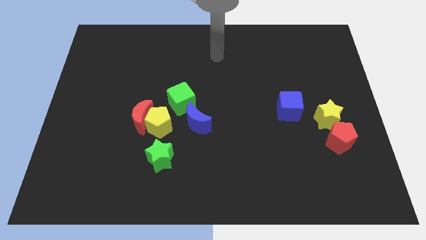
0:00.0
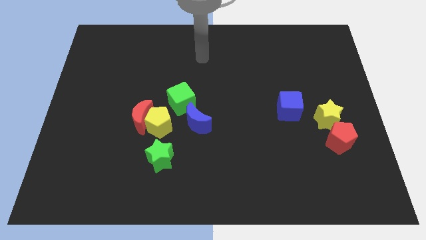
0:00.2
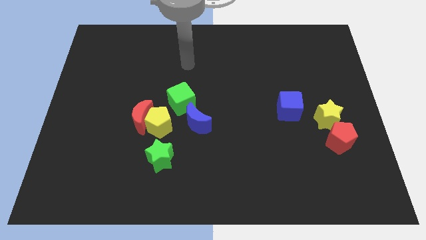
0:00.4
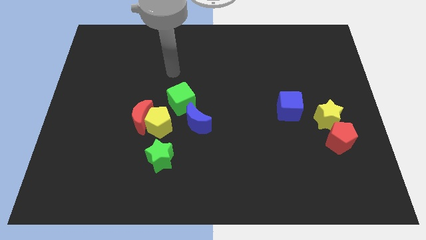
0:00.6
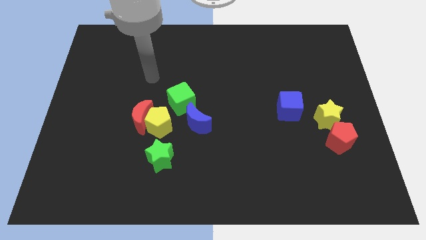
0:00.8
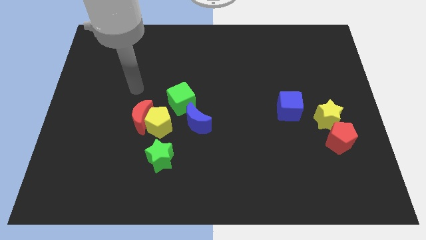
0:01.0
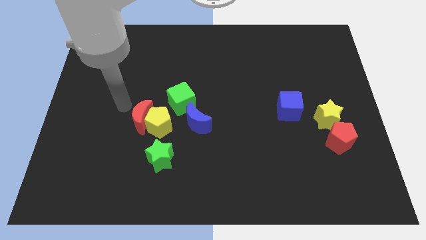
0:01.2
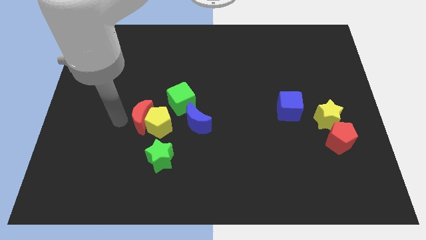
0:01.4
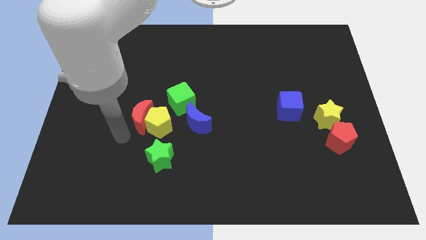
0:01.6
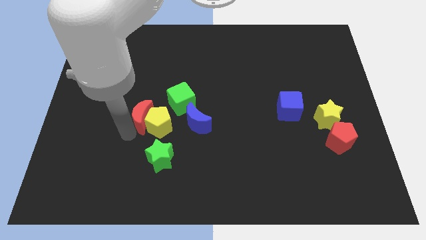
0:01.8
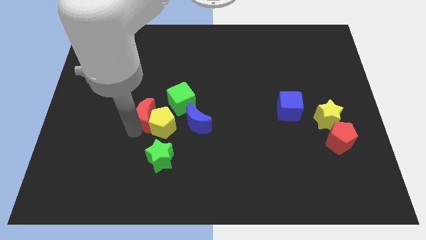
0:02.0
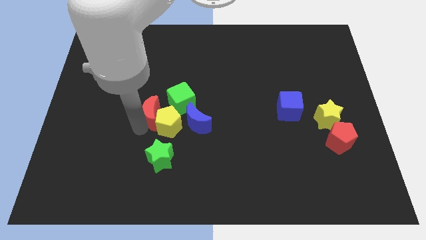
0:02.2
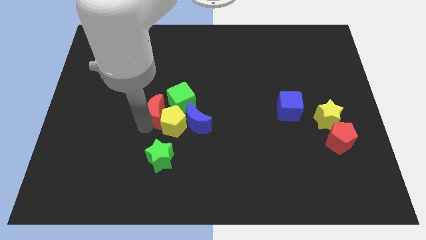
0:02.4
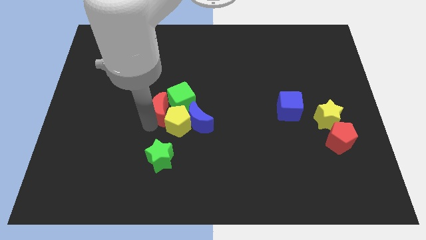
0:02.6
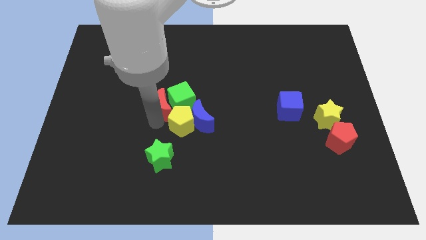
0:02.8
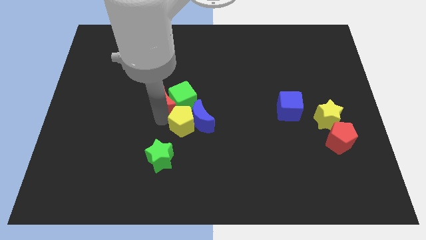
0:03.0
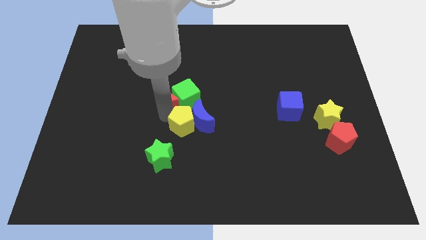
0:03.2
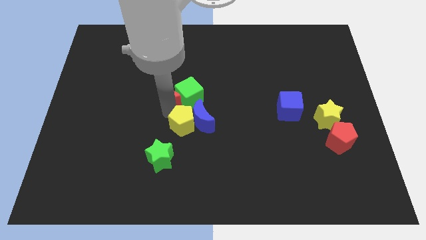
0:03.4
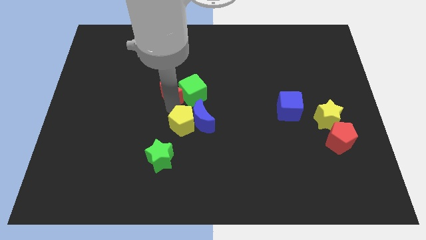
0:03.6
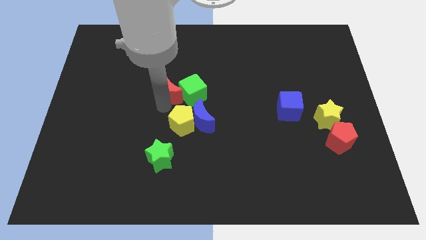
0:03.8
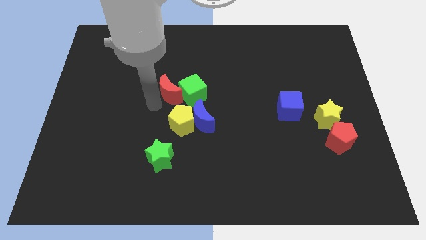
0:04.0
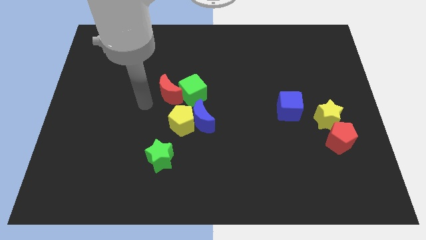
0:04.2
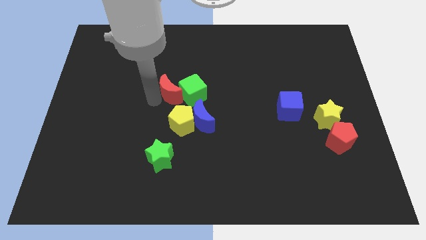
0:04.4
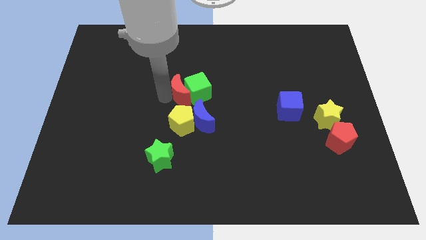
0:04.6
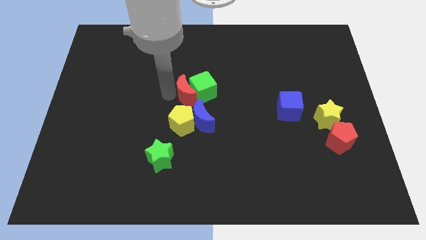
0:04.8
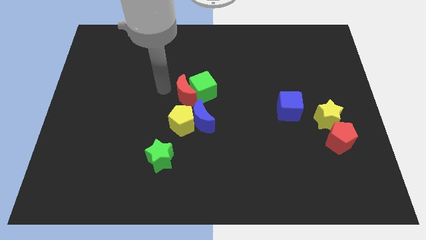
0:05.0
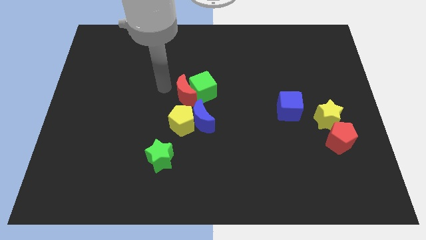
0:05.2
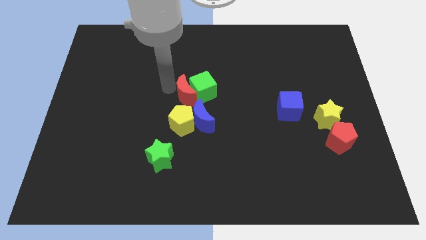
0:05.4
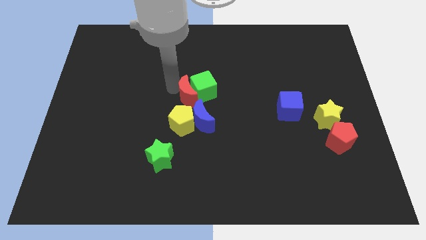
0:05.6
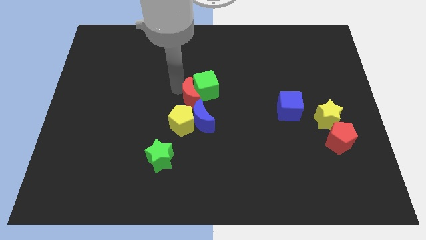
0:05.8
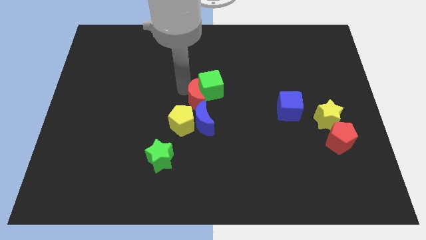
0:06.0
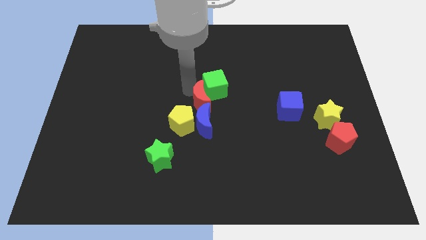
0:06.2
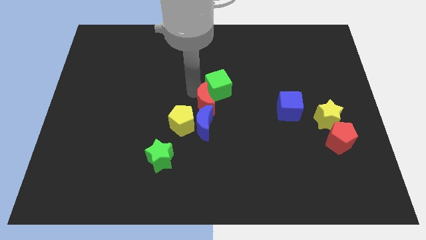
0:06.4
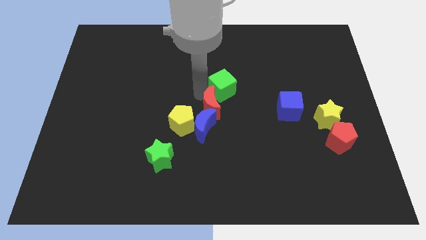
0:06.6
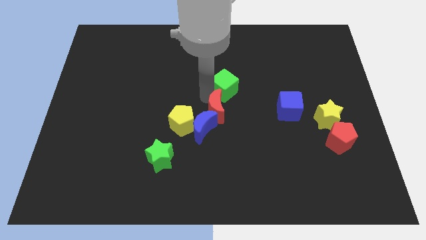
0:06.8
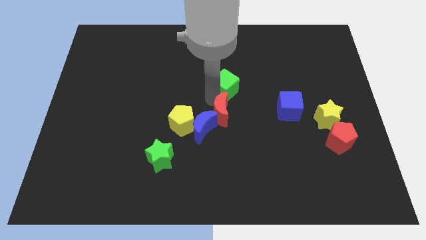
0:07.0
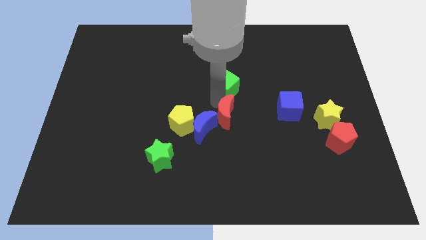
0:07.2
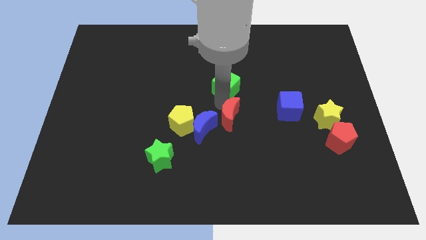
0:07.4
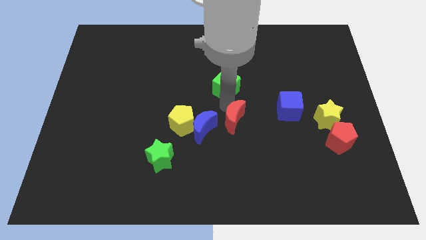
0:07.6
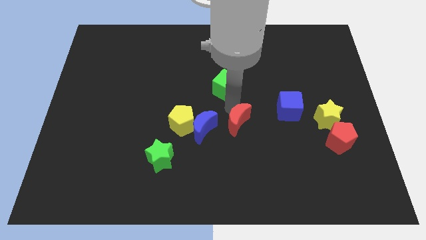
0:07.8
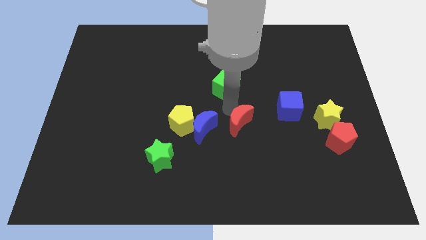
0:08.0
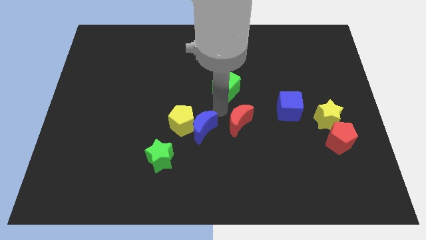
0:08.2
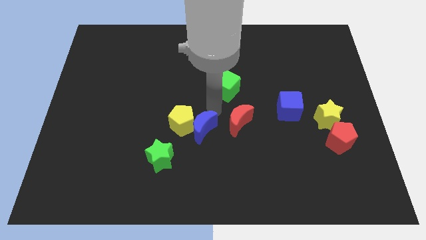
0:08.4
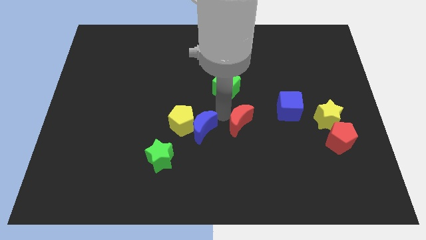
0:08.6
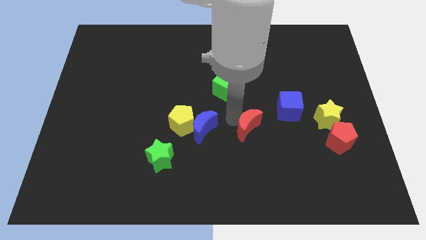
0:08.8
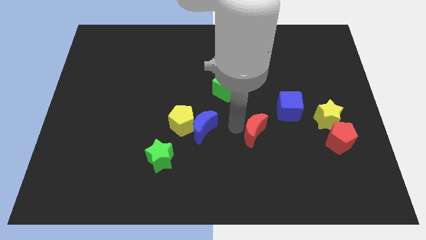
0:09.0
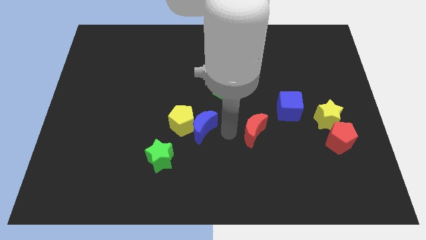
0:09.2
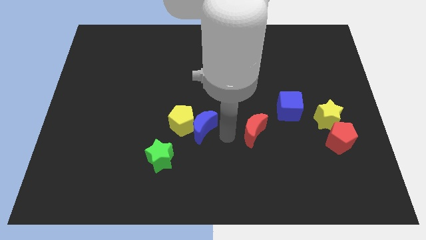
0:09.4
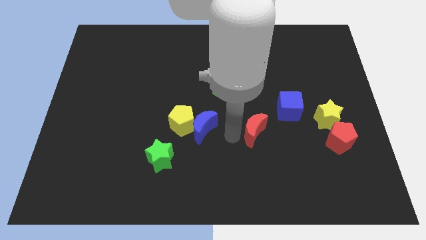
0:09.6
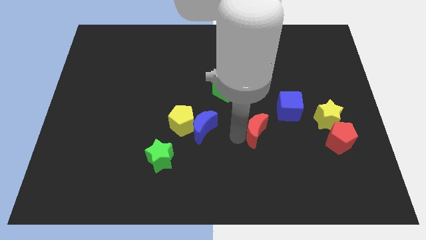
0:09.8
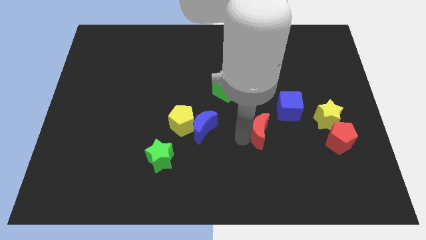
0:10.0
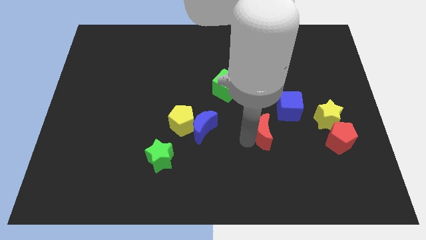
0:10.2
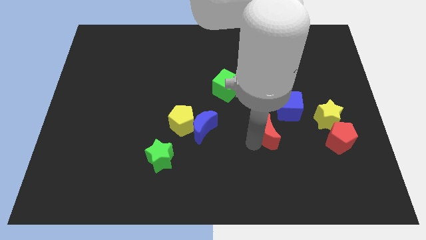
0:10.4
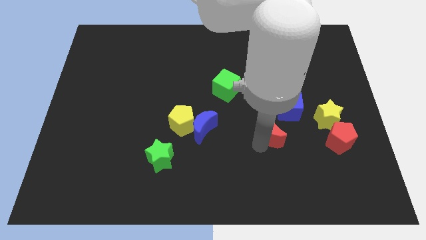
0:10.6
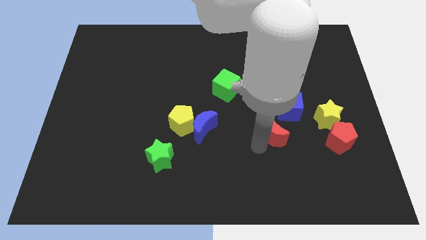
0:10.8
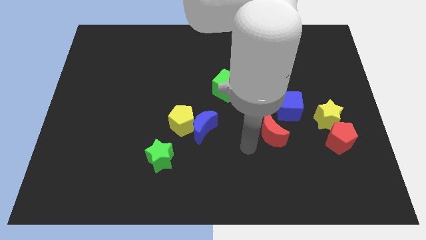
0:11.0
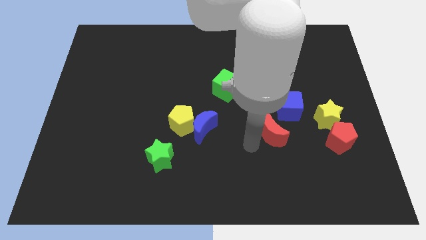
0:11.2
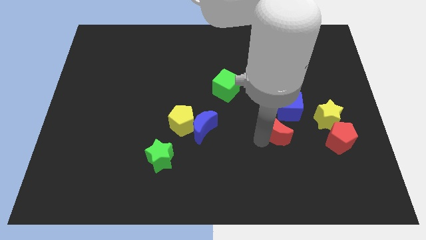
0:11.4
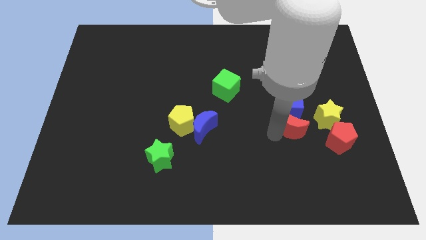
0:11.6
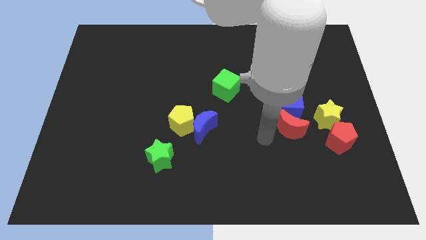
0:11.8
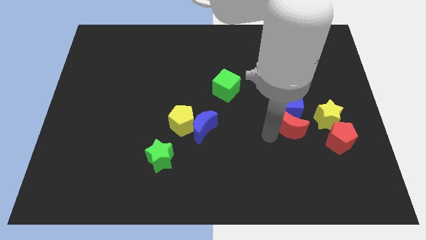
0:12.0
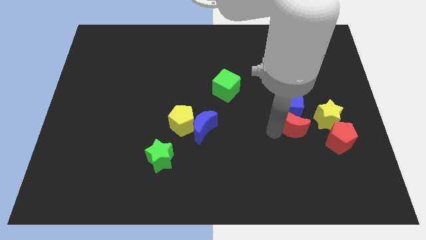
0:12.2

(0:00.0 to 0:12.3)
put the red moon to the top left side of the red pentagon
